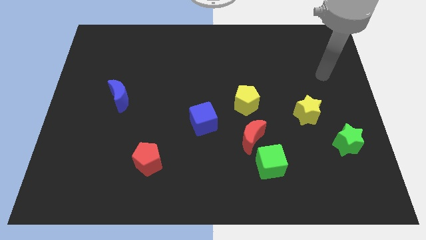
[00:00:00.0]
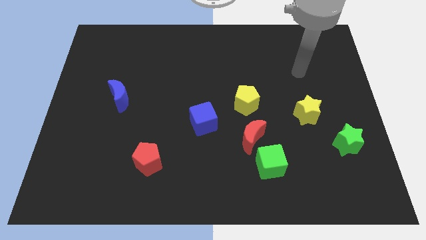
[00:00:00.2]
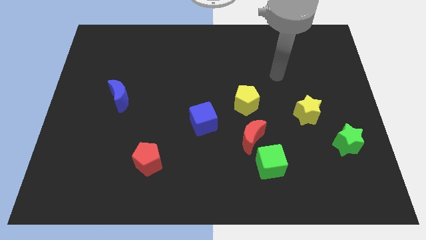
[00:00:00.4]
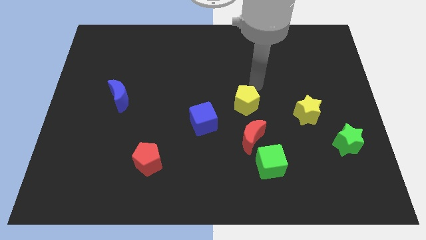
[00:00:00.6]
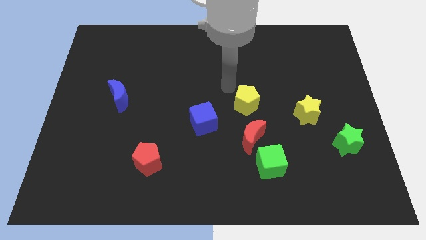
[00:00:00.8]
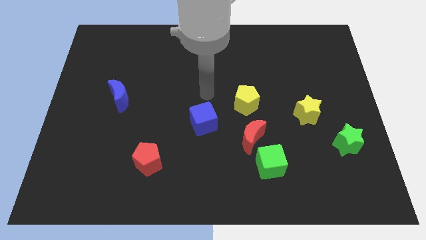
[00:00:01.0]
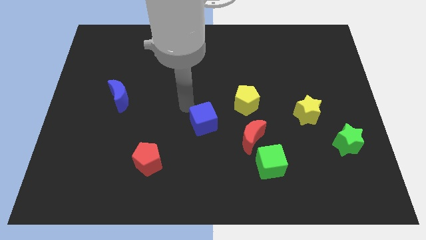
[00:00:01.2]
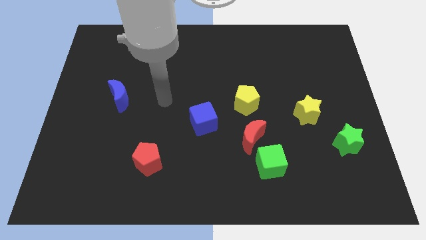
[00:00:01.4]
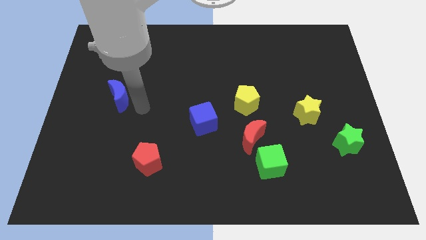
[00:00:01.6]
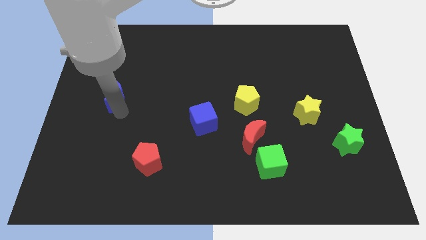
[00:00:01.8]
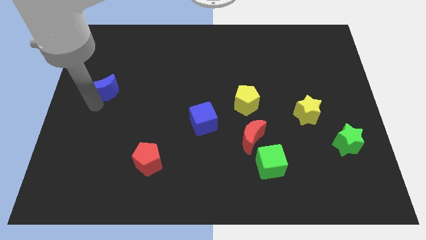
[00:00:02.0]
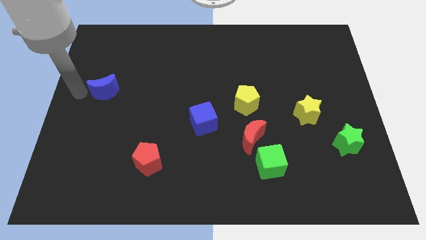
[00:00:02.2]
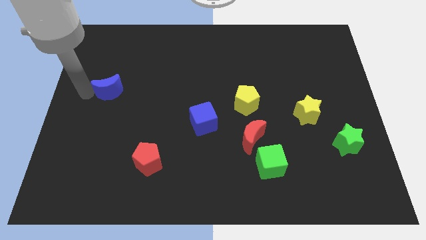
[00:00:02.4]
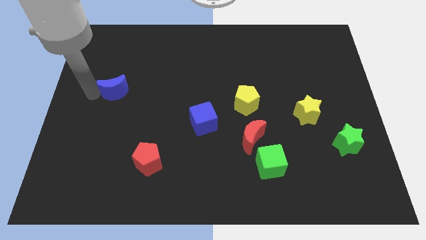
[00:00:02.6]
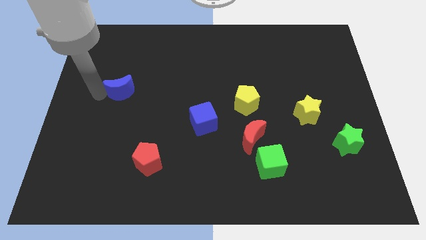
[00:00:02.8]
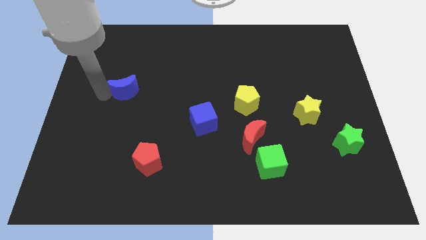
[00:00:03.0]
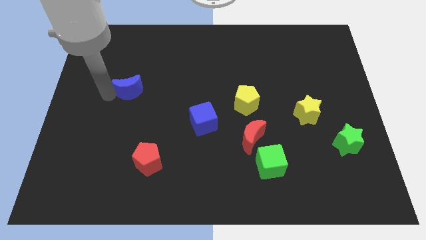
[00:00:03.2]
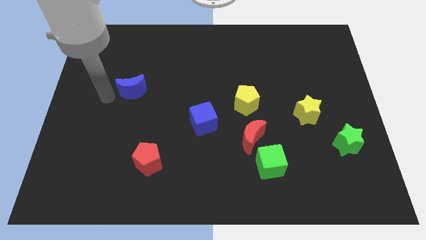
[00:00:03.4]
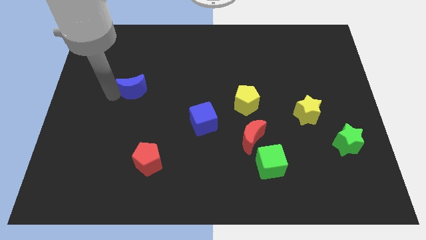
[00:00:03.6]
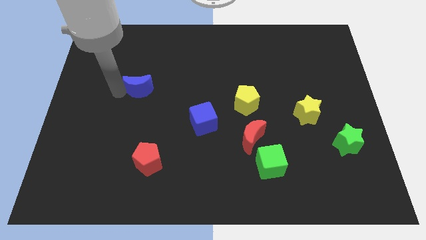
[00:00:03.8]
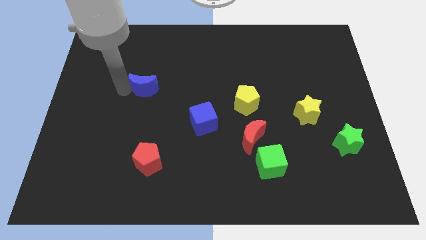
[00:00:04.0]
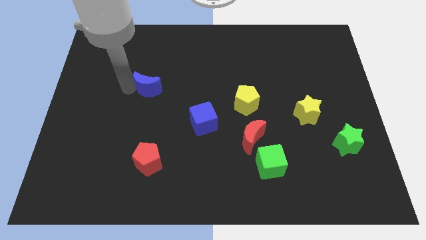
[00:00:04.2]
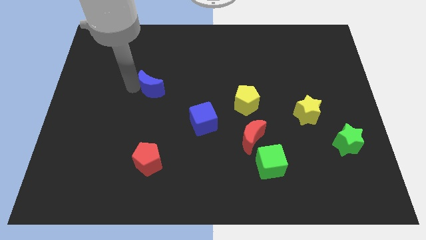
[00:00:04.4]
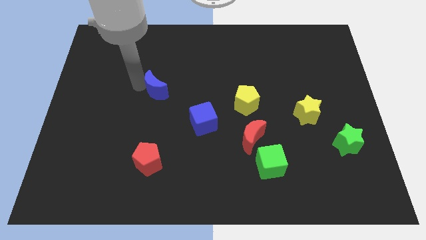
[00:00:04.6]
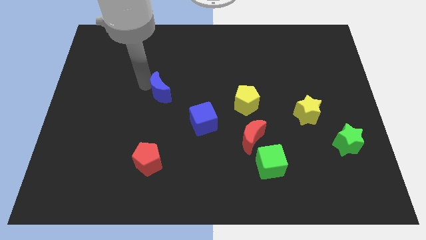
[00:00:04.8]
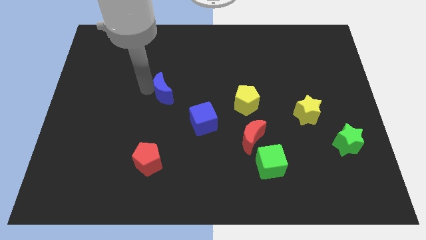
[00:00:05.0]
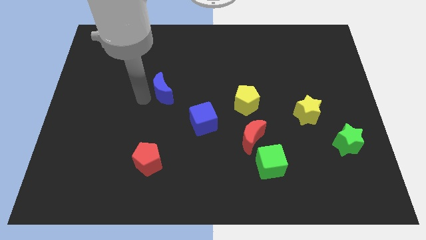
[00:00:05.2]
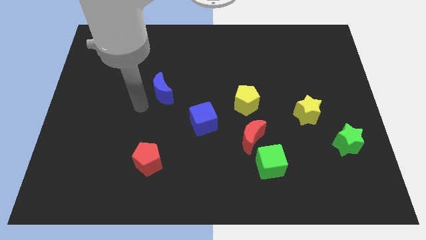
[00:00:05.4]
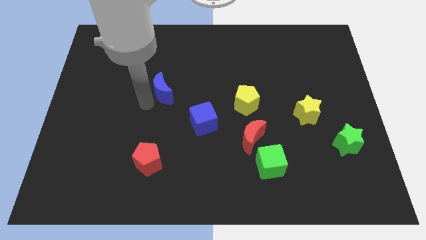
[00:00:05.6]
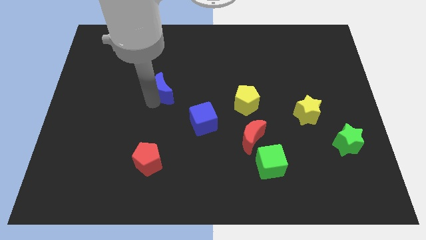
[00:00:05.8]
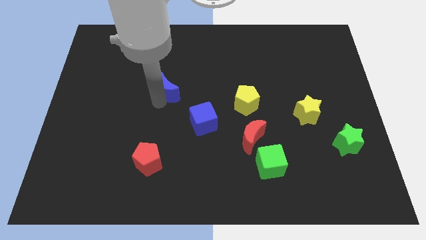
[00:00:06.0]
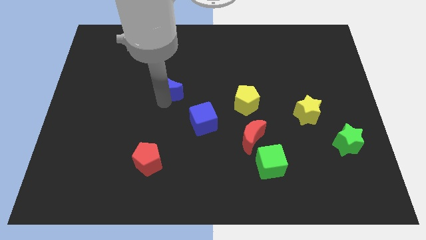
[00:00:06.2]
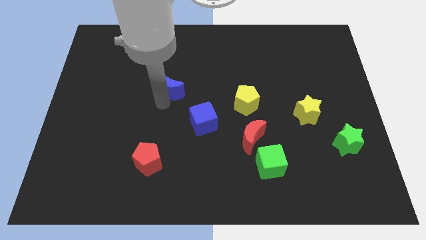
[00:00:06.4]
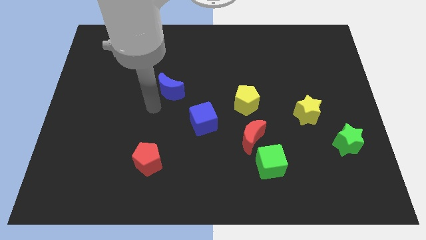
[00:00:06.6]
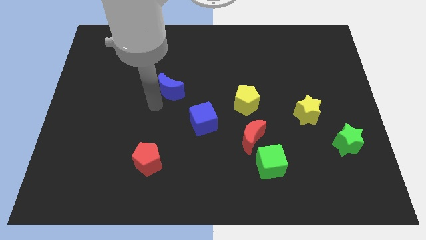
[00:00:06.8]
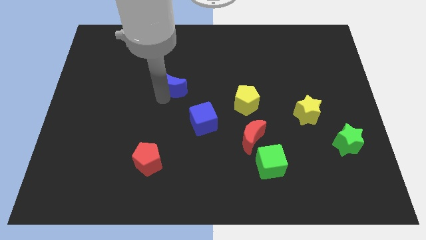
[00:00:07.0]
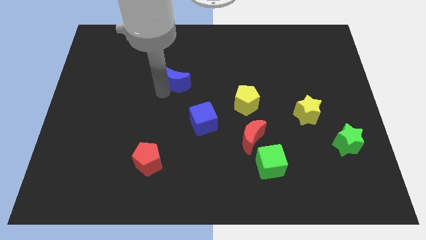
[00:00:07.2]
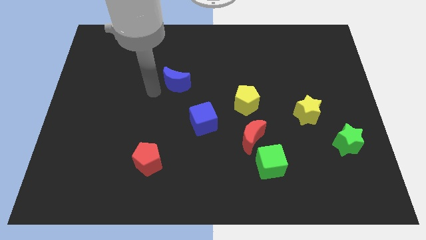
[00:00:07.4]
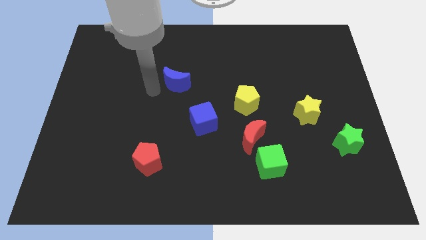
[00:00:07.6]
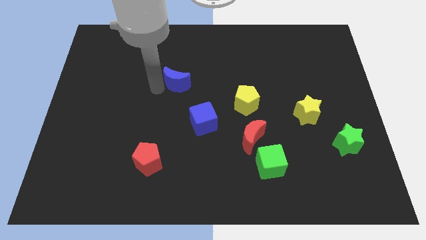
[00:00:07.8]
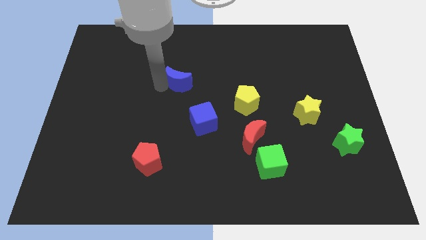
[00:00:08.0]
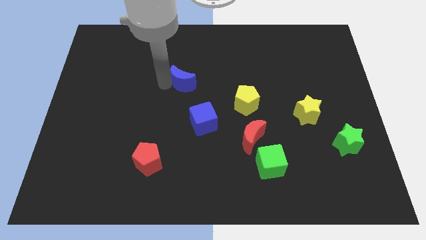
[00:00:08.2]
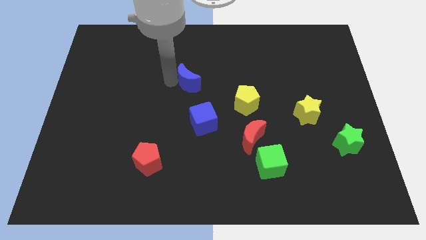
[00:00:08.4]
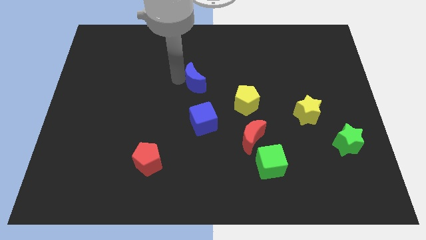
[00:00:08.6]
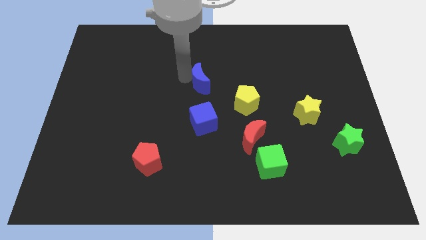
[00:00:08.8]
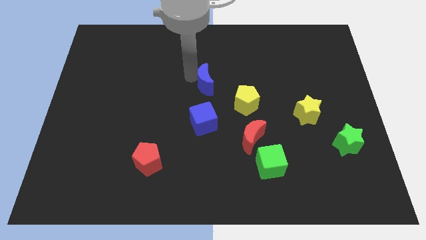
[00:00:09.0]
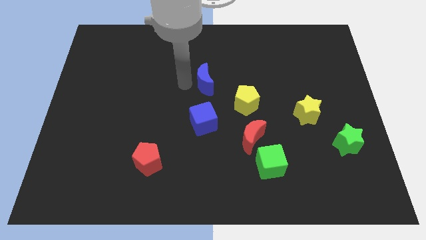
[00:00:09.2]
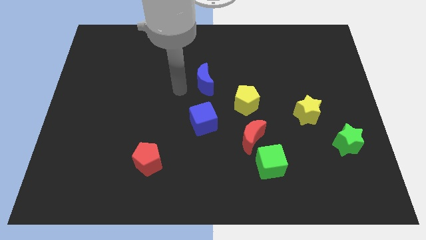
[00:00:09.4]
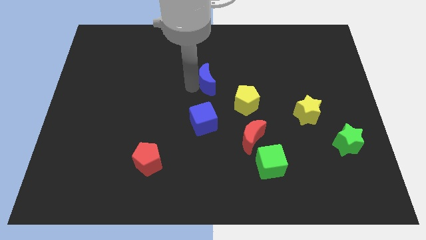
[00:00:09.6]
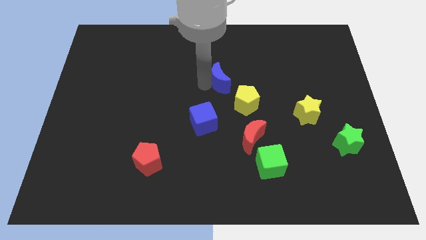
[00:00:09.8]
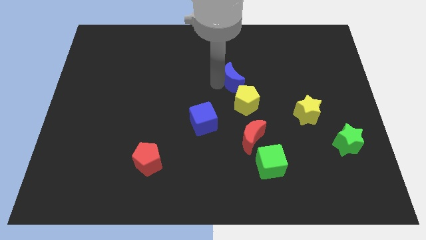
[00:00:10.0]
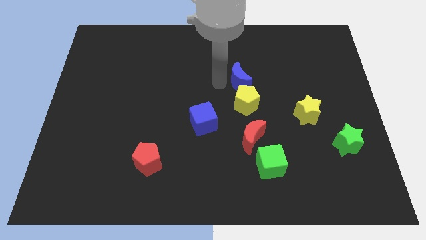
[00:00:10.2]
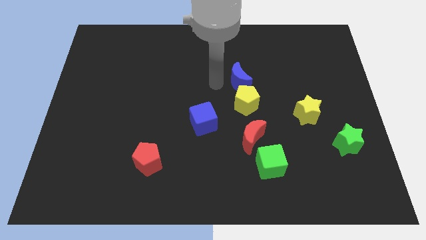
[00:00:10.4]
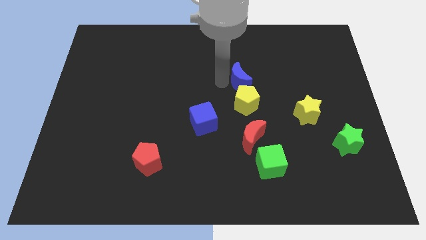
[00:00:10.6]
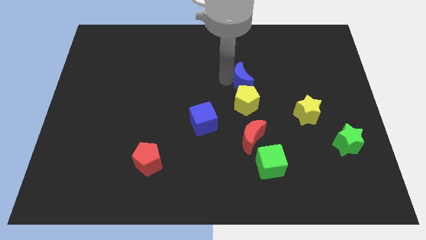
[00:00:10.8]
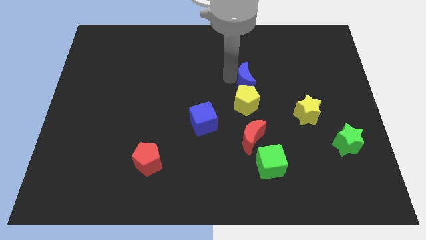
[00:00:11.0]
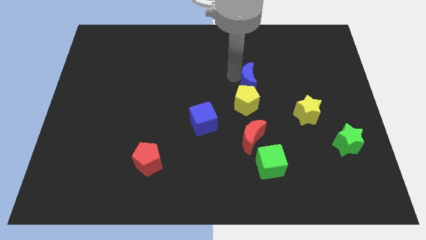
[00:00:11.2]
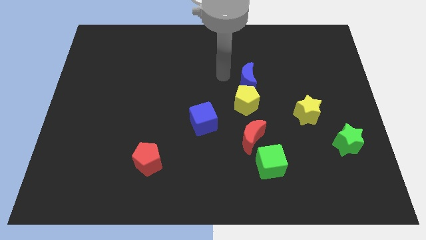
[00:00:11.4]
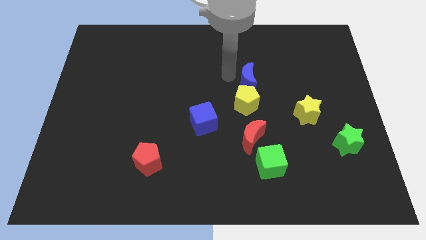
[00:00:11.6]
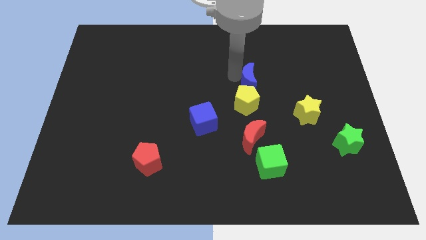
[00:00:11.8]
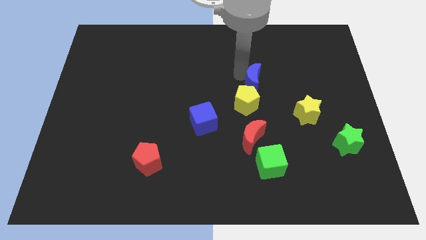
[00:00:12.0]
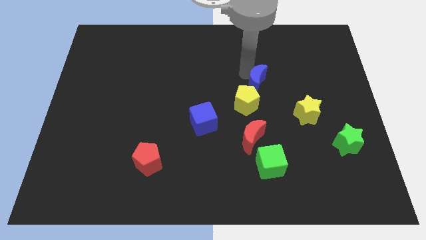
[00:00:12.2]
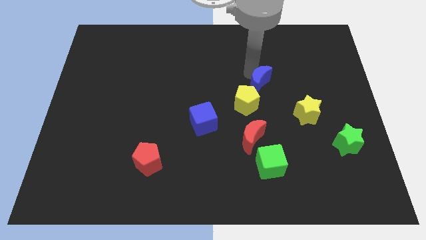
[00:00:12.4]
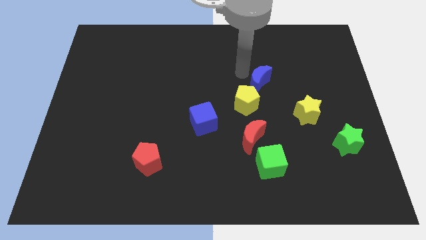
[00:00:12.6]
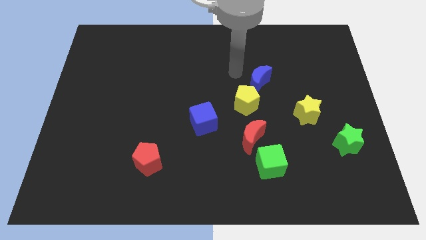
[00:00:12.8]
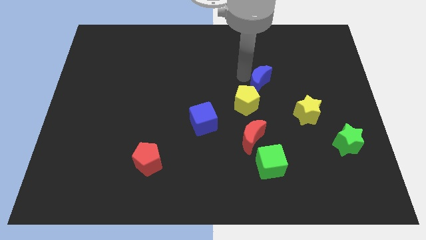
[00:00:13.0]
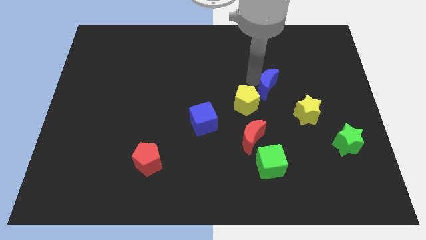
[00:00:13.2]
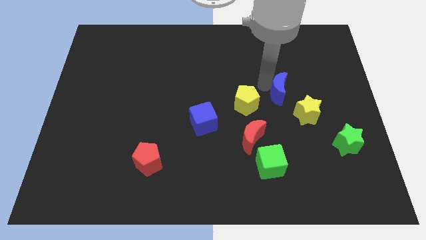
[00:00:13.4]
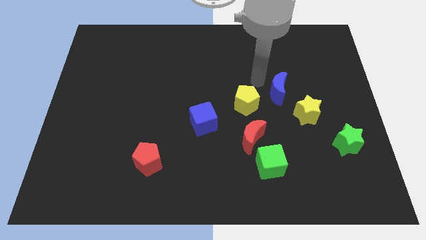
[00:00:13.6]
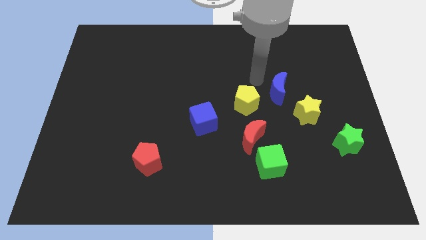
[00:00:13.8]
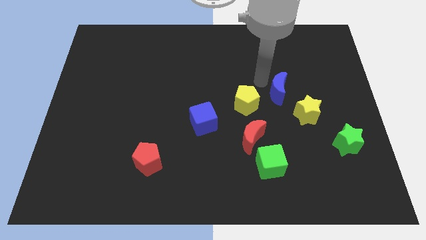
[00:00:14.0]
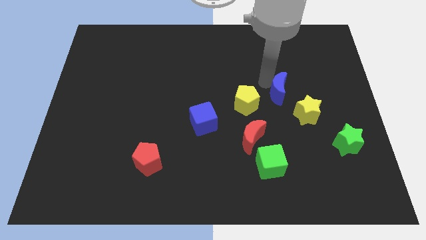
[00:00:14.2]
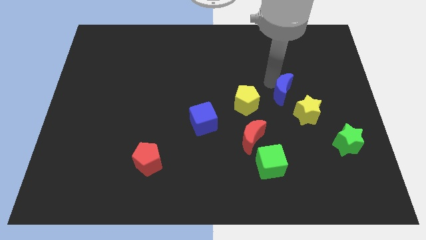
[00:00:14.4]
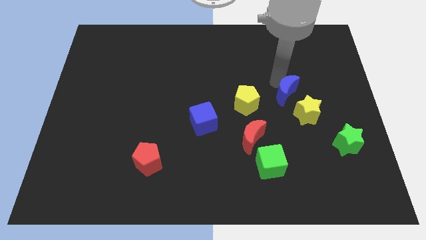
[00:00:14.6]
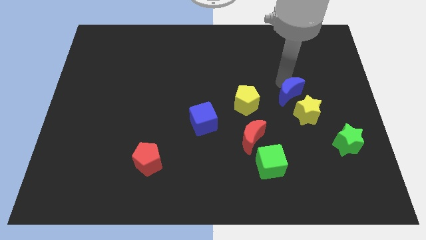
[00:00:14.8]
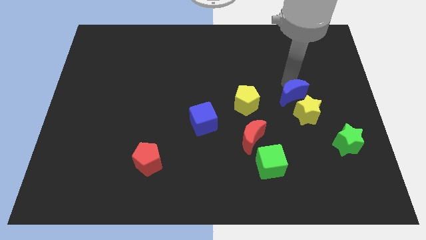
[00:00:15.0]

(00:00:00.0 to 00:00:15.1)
push the blue moon to the yellow star

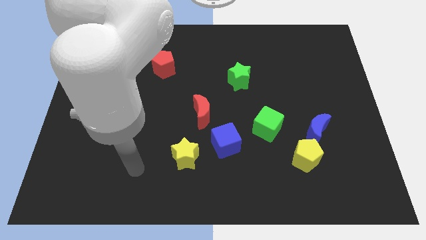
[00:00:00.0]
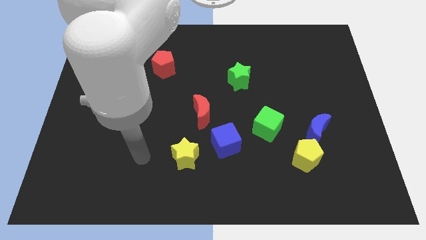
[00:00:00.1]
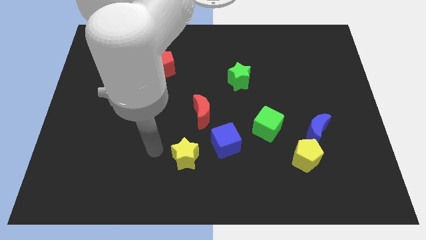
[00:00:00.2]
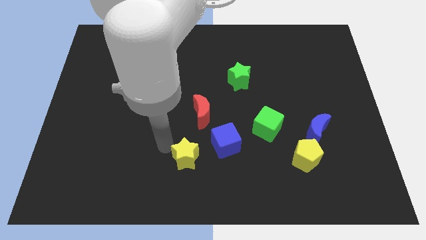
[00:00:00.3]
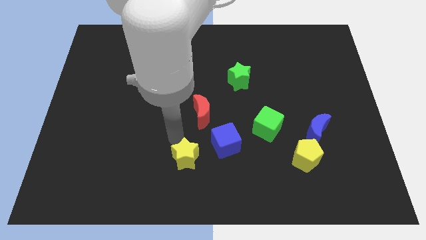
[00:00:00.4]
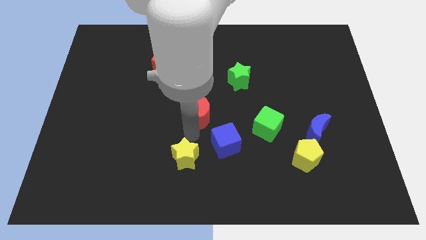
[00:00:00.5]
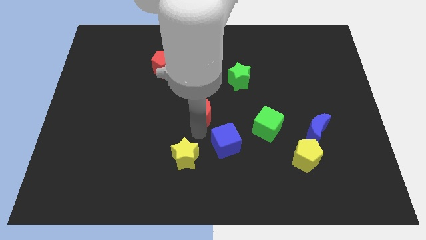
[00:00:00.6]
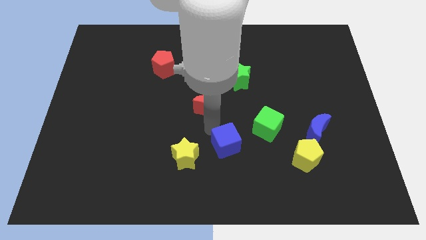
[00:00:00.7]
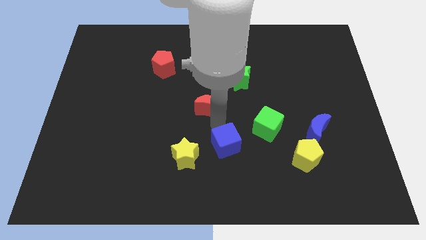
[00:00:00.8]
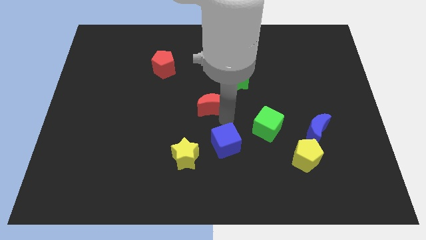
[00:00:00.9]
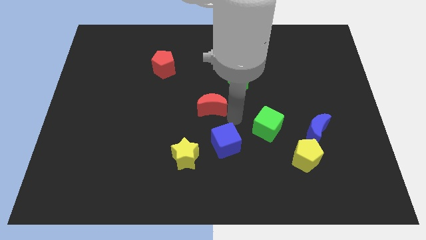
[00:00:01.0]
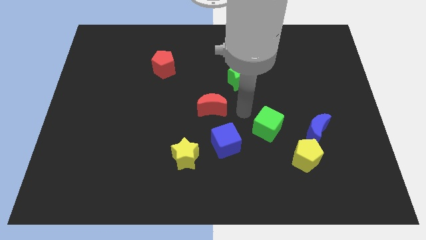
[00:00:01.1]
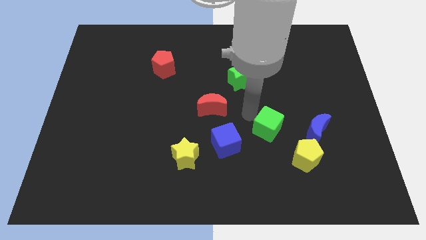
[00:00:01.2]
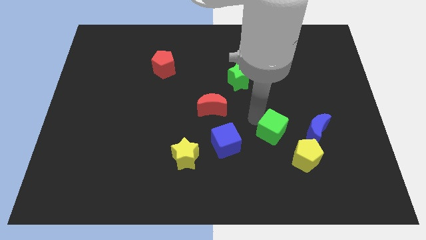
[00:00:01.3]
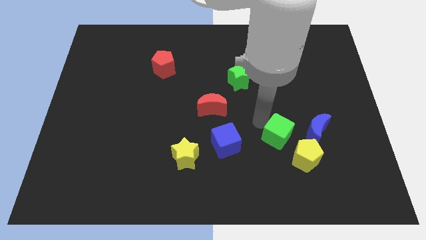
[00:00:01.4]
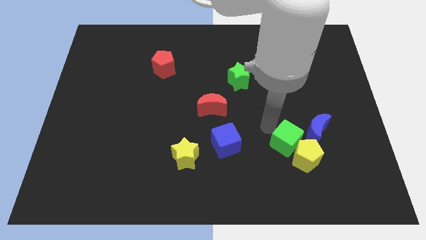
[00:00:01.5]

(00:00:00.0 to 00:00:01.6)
slide the green cube towards the yellow pentagon
